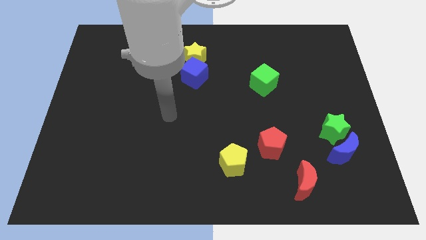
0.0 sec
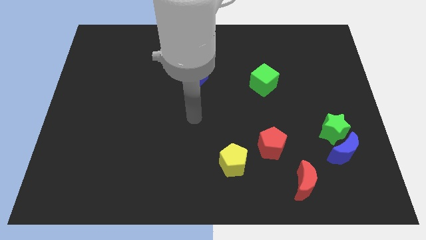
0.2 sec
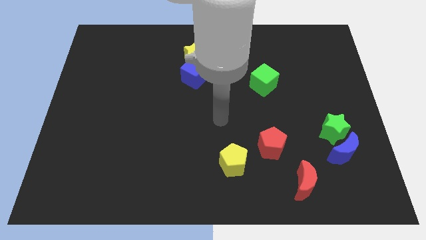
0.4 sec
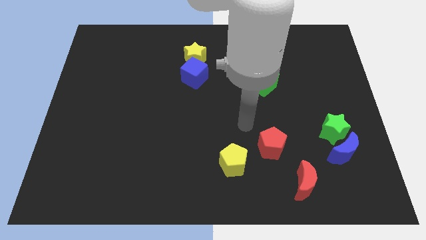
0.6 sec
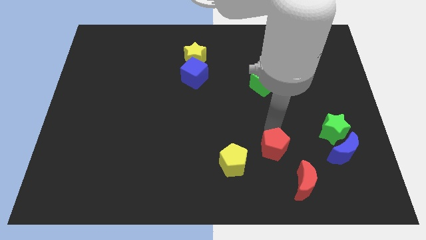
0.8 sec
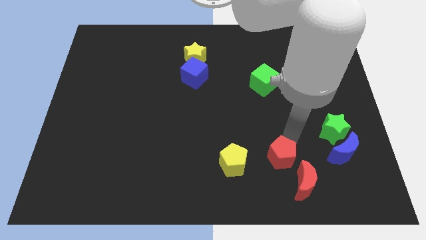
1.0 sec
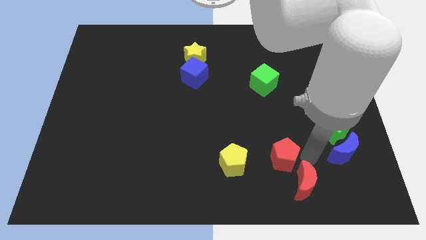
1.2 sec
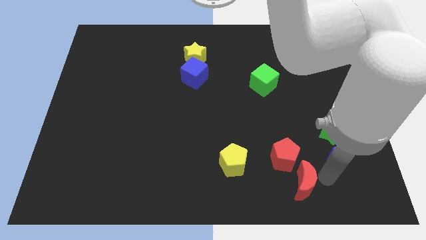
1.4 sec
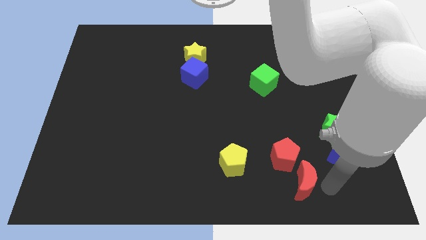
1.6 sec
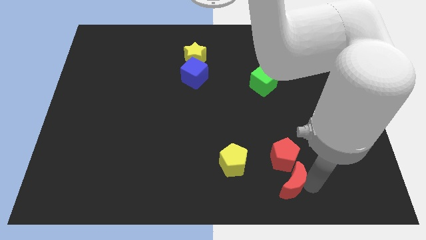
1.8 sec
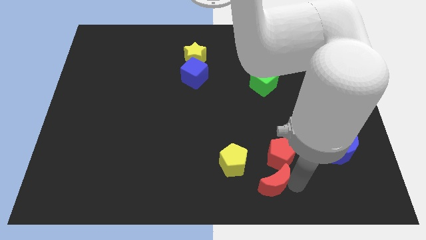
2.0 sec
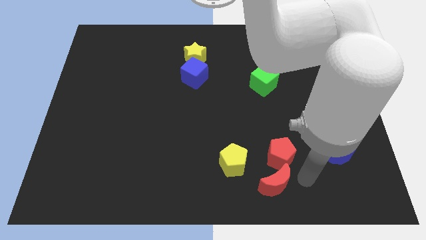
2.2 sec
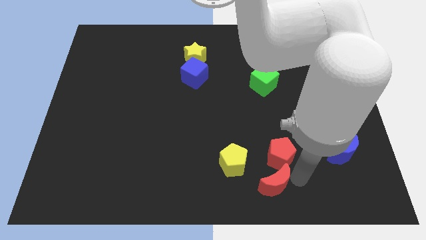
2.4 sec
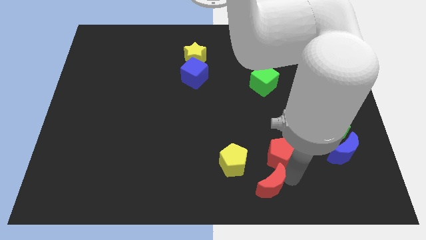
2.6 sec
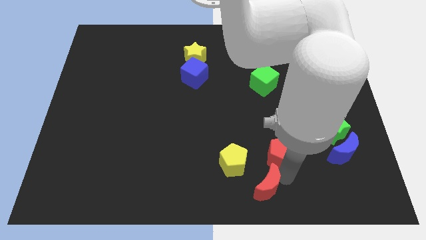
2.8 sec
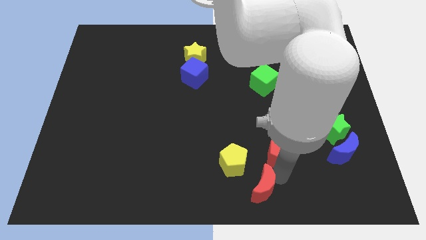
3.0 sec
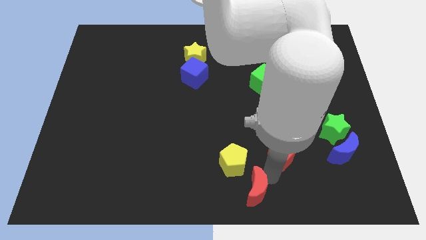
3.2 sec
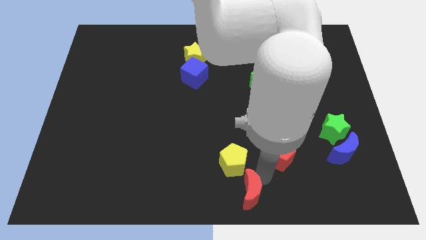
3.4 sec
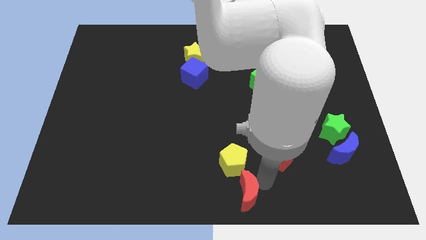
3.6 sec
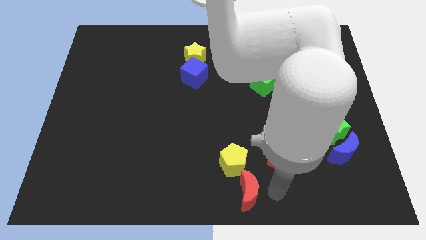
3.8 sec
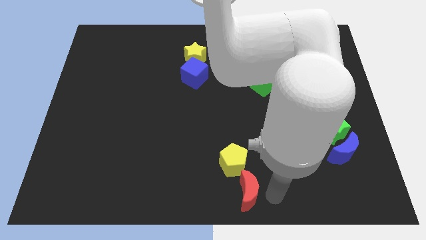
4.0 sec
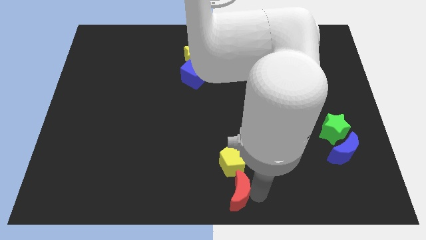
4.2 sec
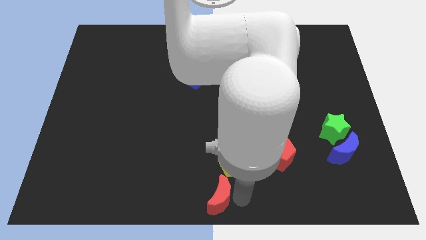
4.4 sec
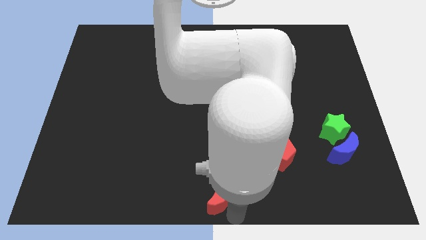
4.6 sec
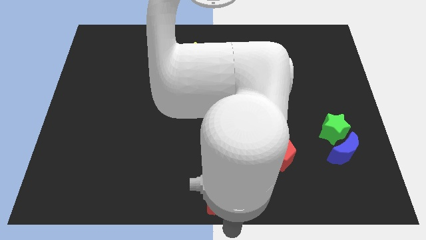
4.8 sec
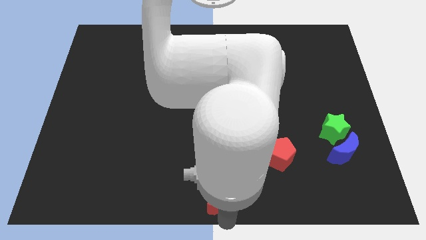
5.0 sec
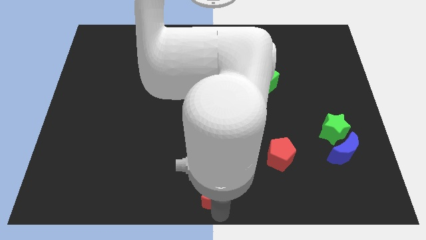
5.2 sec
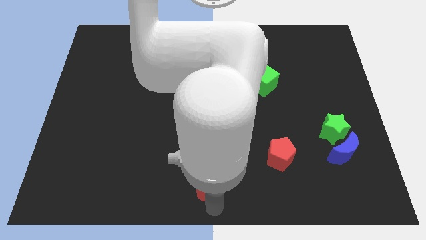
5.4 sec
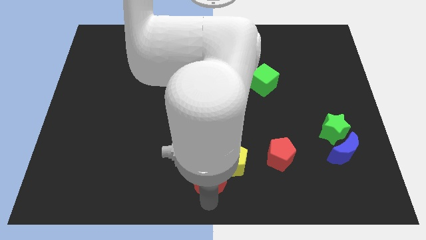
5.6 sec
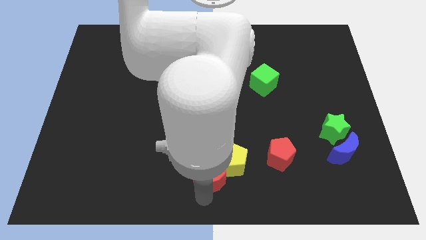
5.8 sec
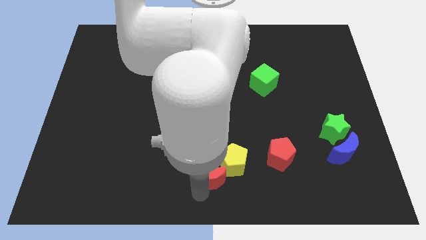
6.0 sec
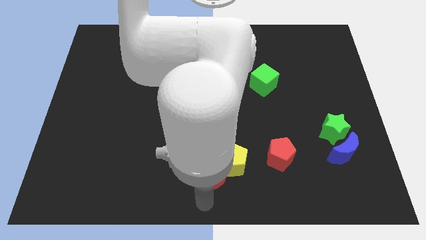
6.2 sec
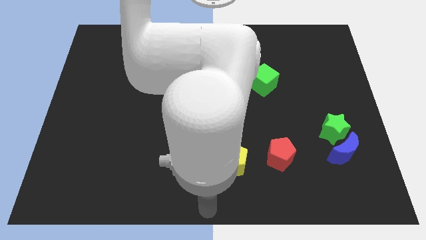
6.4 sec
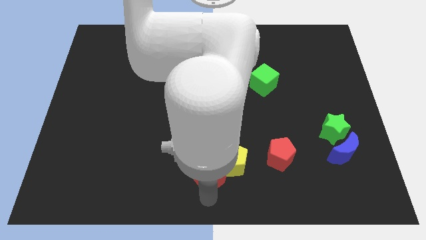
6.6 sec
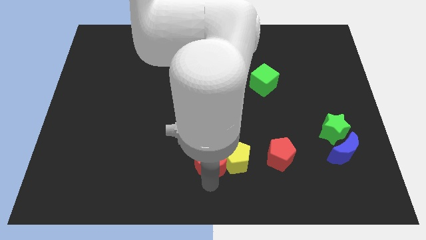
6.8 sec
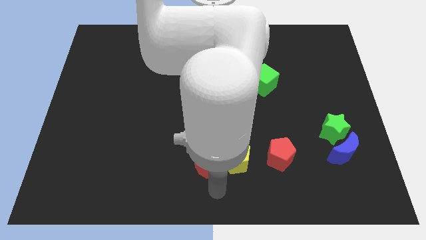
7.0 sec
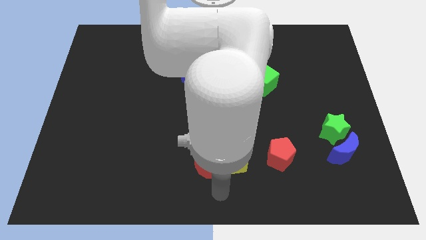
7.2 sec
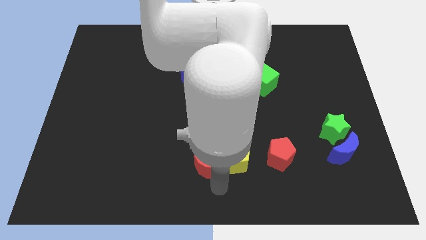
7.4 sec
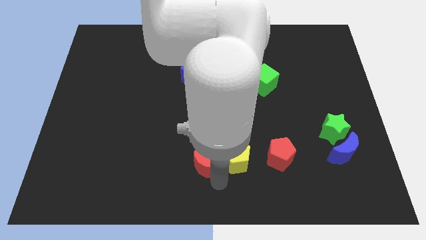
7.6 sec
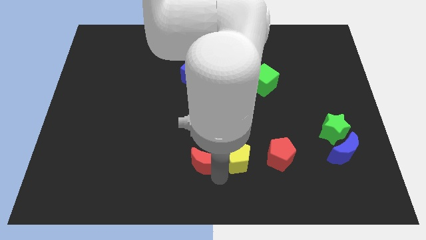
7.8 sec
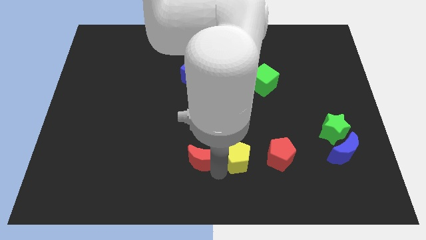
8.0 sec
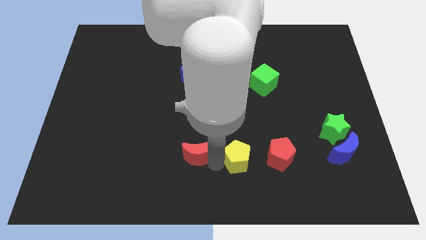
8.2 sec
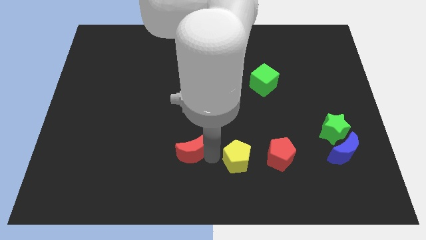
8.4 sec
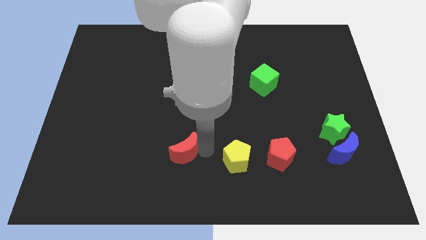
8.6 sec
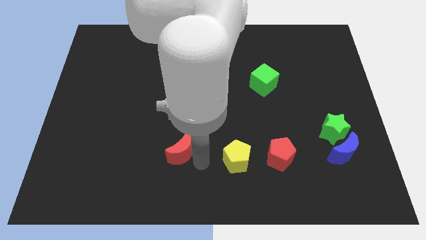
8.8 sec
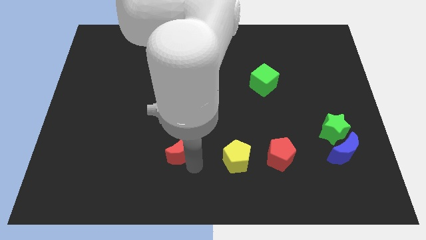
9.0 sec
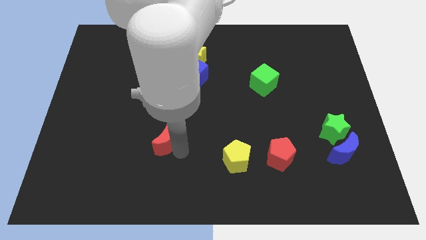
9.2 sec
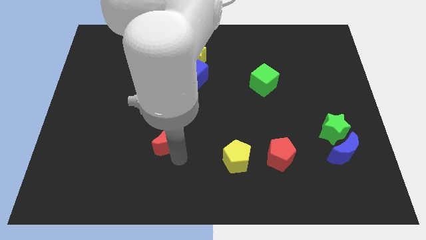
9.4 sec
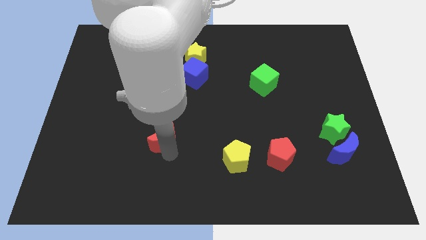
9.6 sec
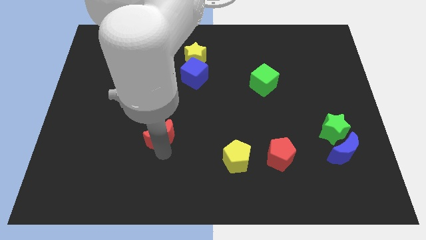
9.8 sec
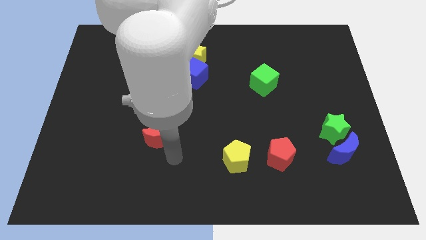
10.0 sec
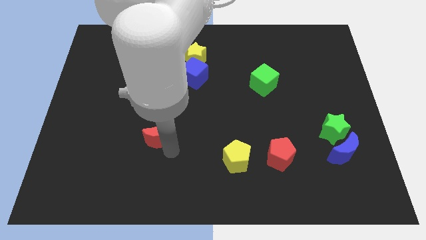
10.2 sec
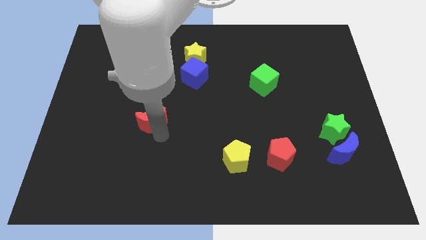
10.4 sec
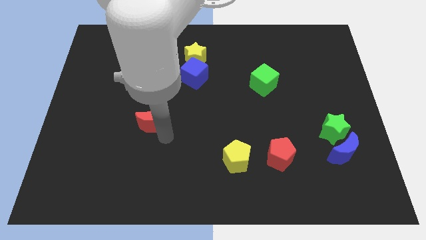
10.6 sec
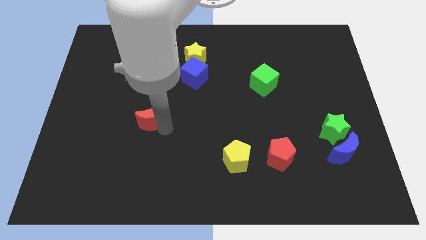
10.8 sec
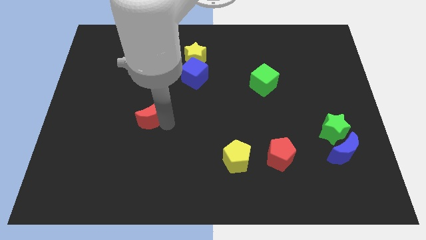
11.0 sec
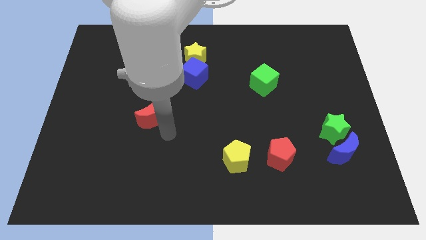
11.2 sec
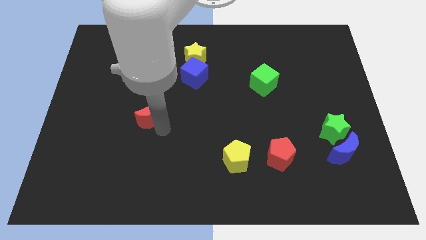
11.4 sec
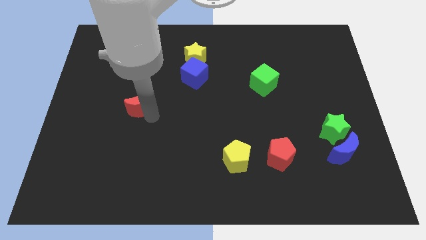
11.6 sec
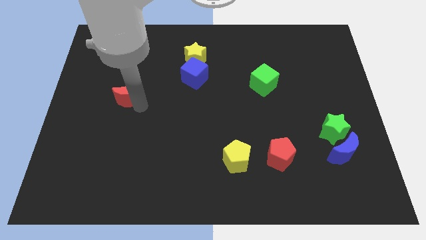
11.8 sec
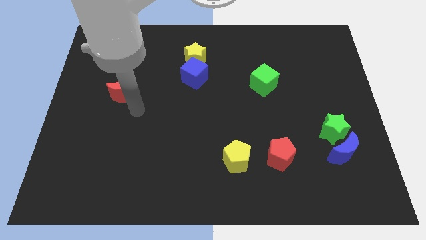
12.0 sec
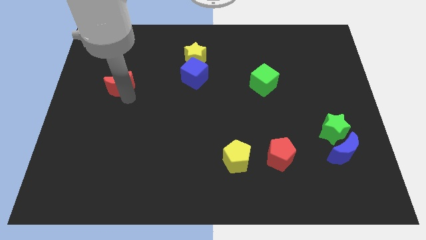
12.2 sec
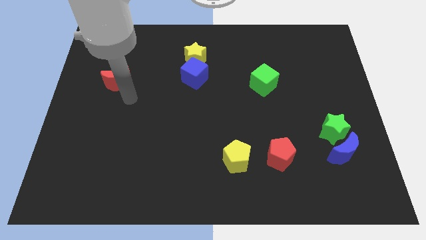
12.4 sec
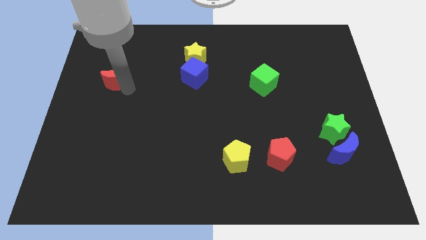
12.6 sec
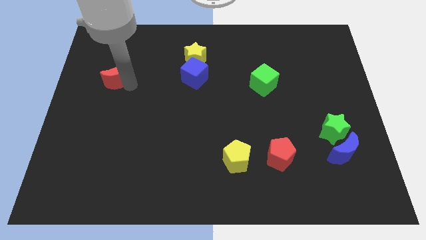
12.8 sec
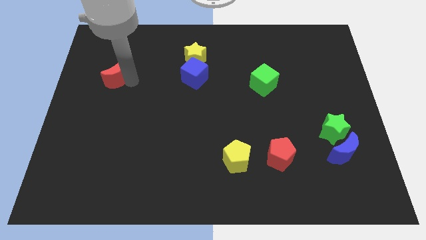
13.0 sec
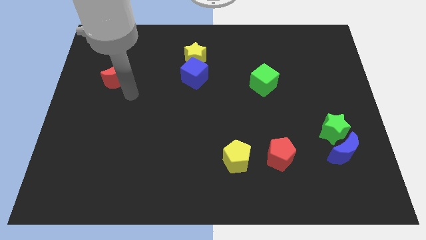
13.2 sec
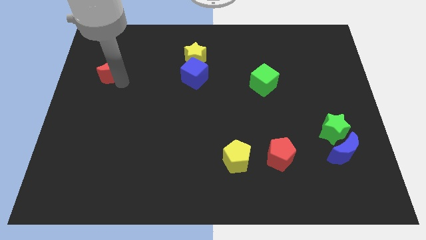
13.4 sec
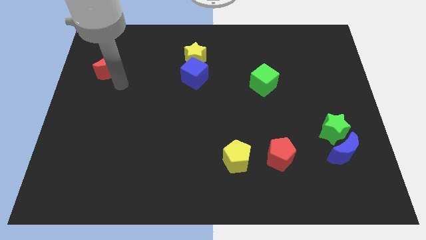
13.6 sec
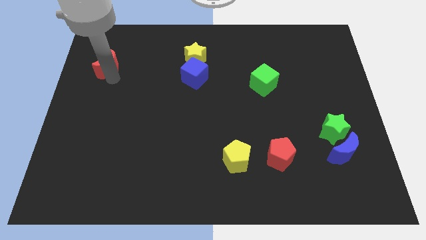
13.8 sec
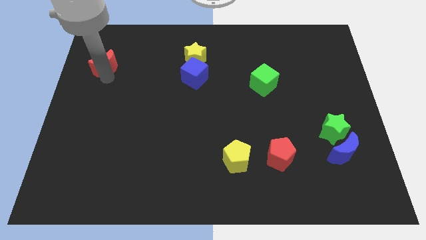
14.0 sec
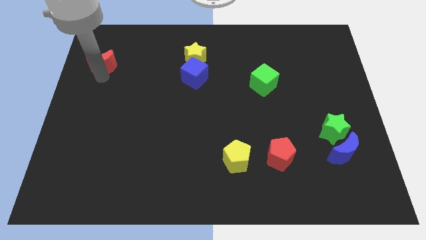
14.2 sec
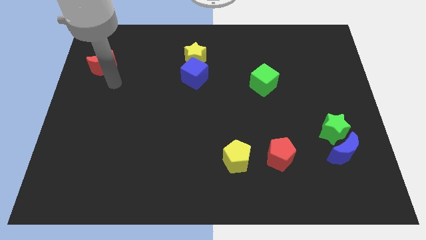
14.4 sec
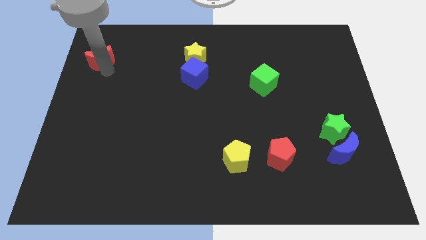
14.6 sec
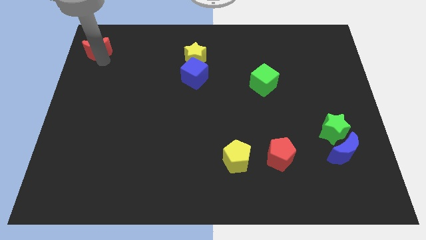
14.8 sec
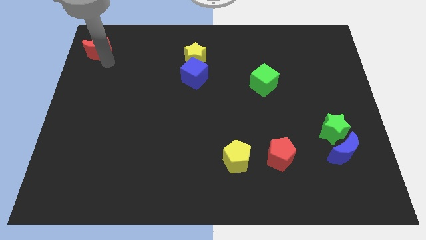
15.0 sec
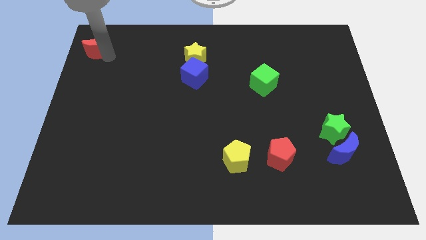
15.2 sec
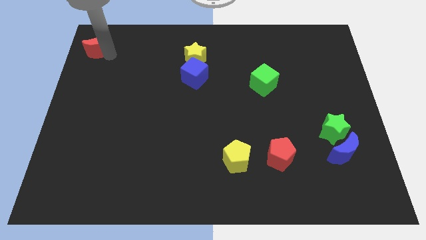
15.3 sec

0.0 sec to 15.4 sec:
put the red moon to the top left
